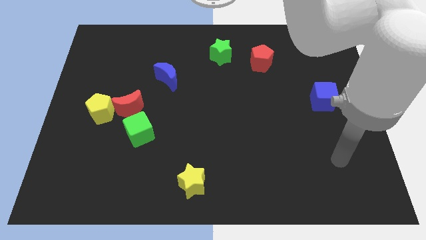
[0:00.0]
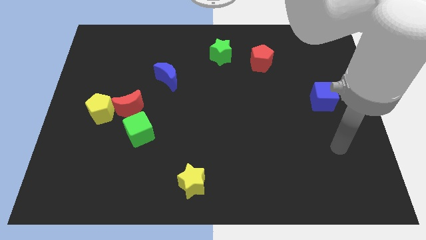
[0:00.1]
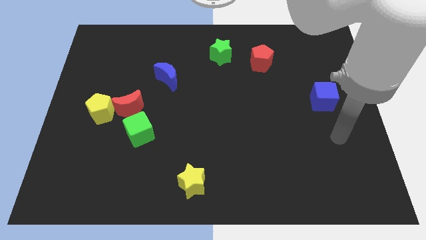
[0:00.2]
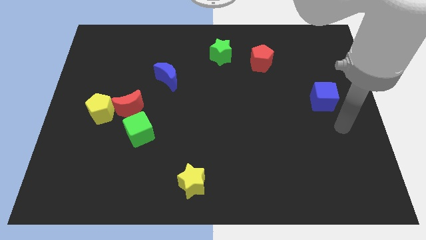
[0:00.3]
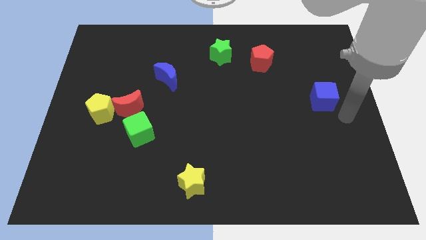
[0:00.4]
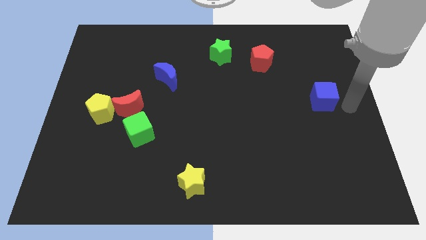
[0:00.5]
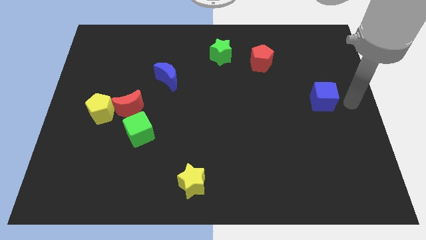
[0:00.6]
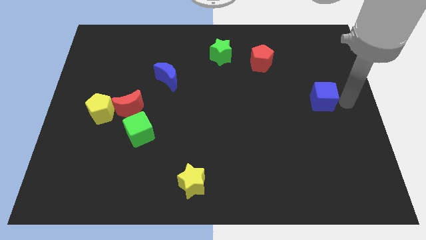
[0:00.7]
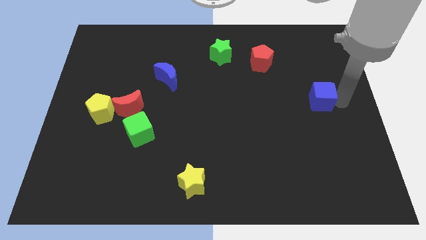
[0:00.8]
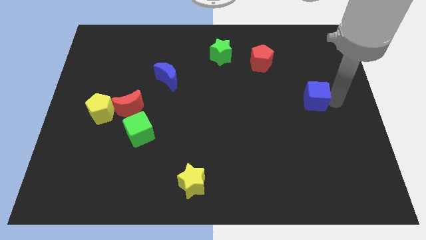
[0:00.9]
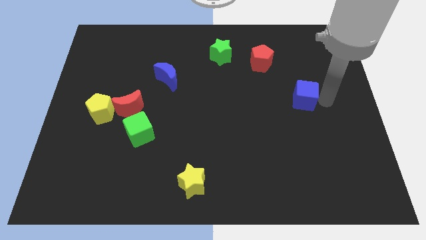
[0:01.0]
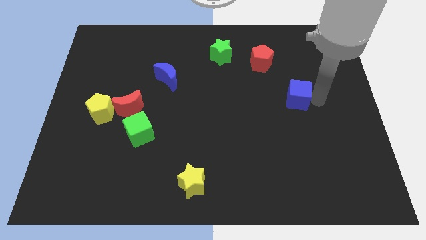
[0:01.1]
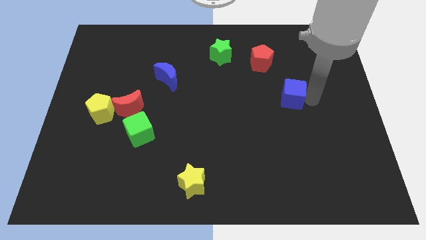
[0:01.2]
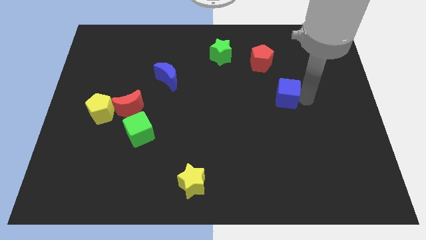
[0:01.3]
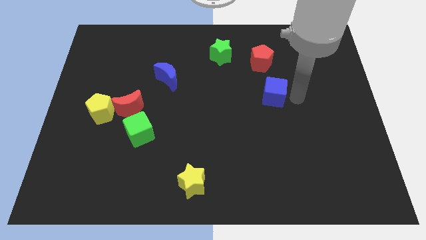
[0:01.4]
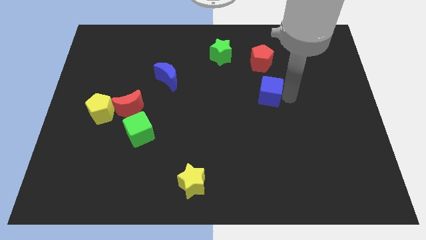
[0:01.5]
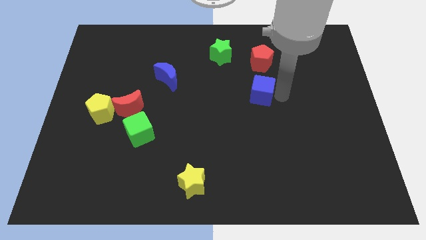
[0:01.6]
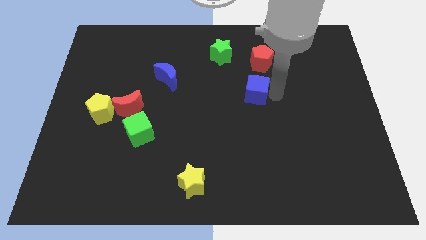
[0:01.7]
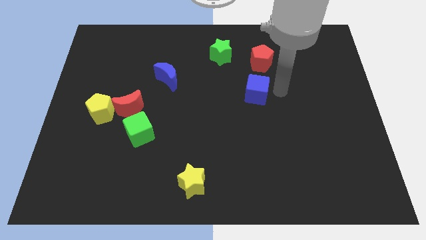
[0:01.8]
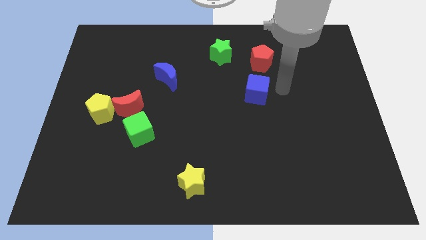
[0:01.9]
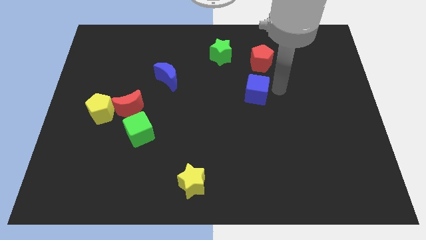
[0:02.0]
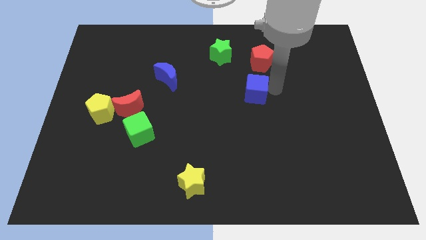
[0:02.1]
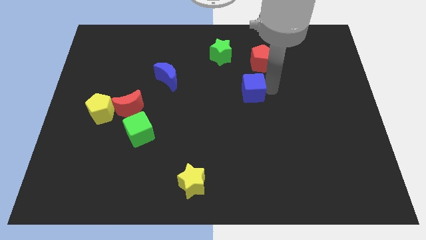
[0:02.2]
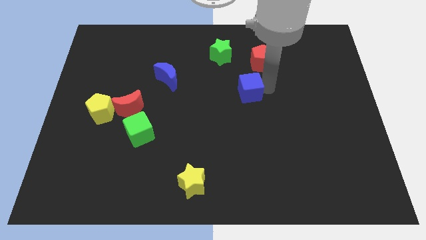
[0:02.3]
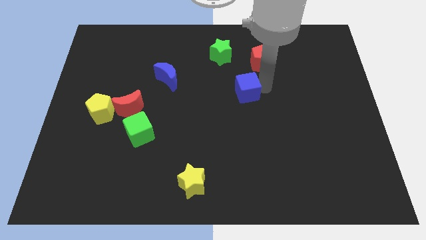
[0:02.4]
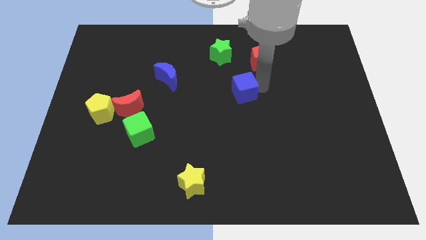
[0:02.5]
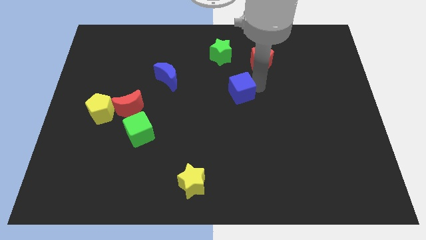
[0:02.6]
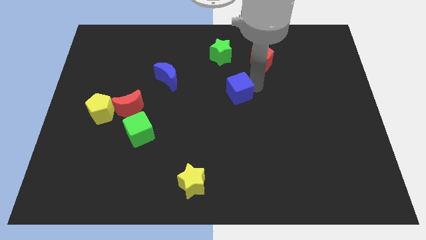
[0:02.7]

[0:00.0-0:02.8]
slide the blue cube left

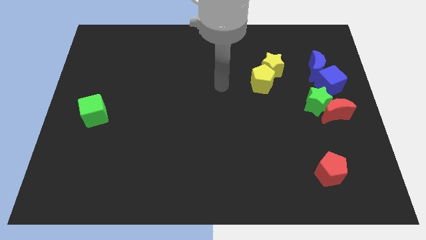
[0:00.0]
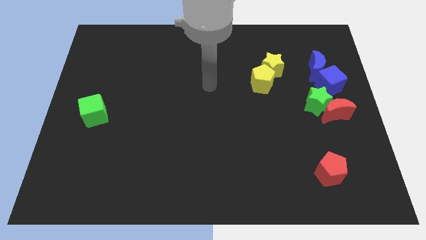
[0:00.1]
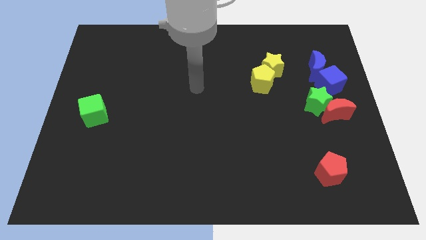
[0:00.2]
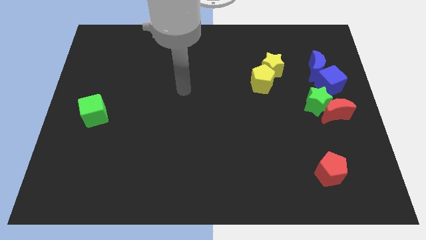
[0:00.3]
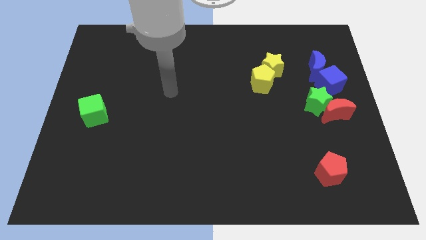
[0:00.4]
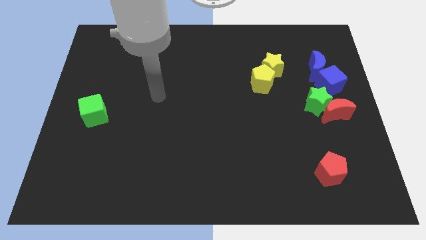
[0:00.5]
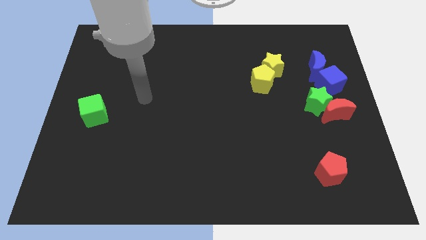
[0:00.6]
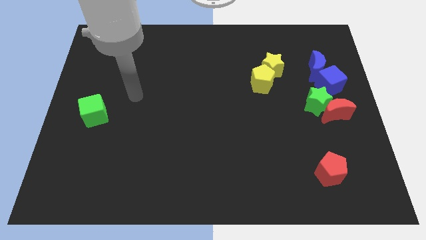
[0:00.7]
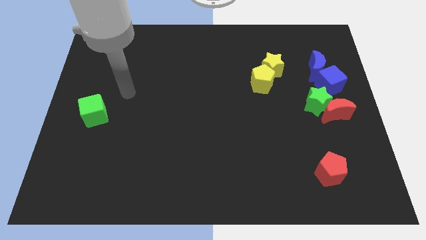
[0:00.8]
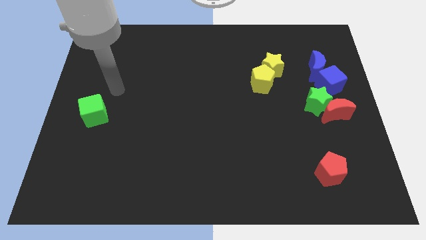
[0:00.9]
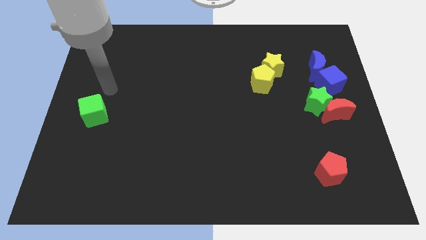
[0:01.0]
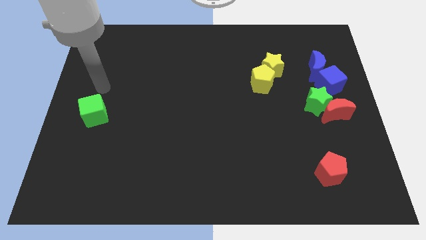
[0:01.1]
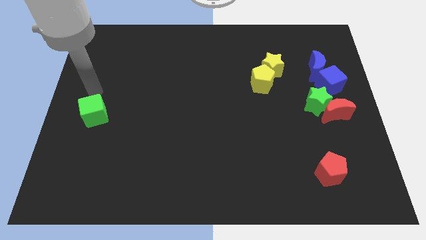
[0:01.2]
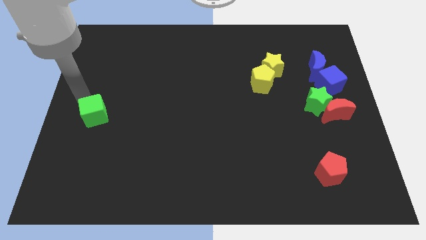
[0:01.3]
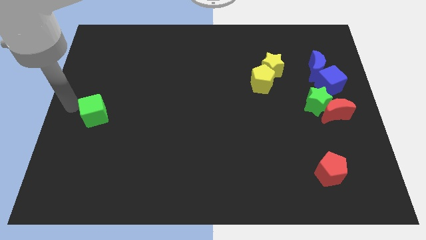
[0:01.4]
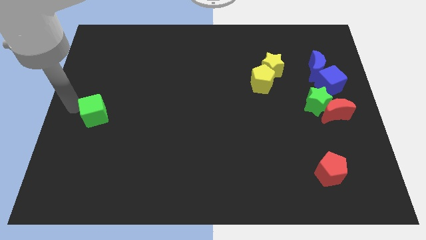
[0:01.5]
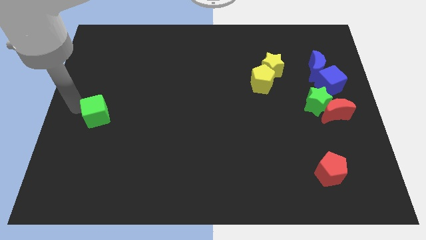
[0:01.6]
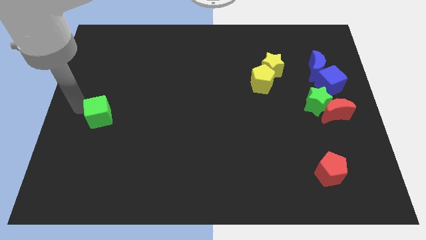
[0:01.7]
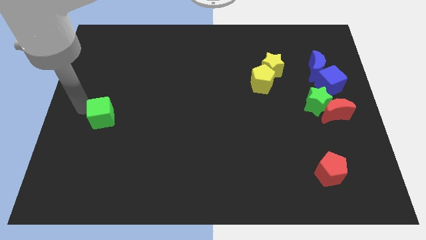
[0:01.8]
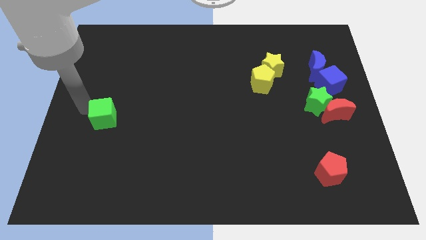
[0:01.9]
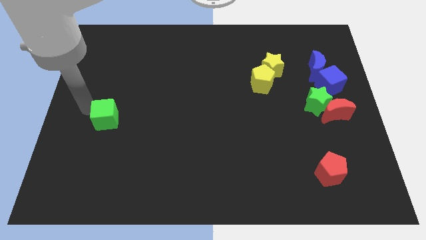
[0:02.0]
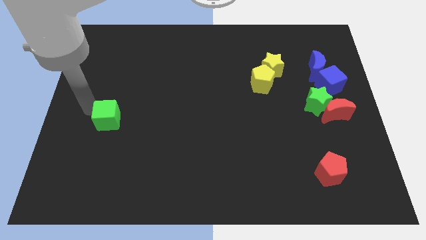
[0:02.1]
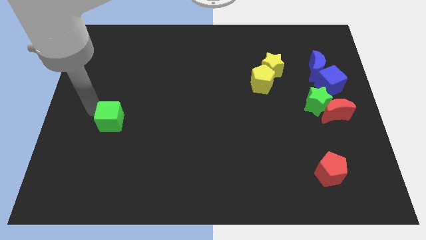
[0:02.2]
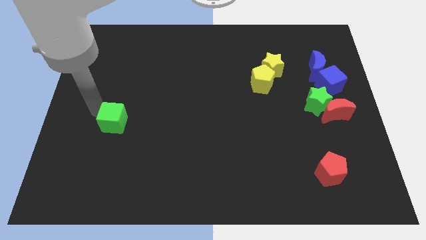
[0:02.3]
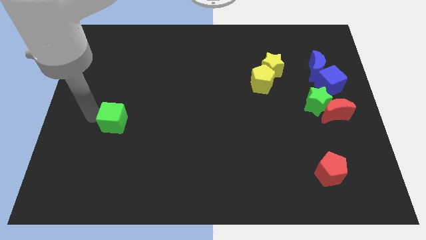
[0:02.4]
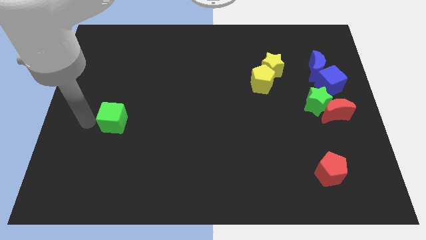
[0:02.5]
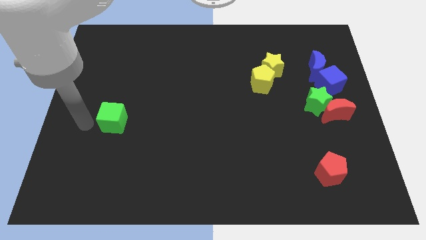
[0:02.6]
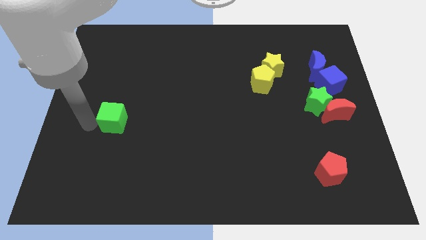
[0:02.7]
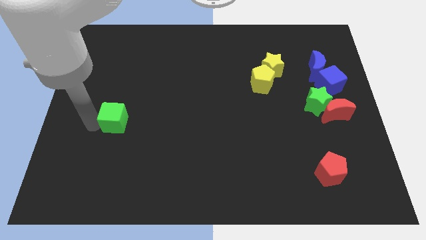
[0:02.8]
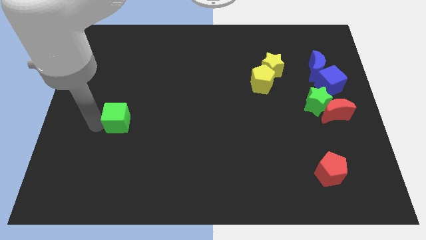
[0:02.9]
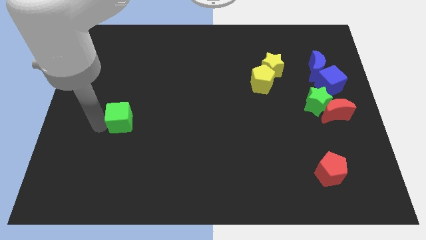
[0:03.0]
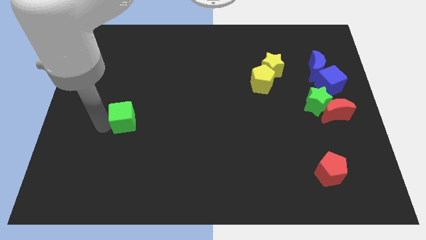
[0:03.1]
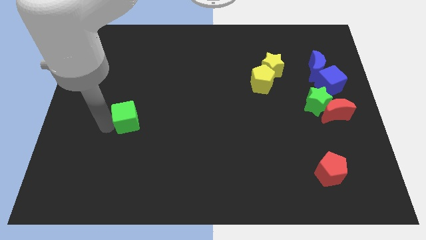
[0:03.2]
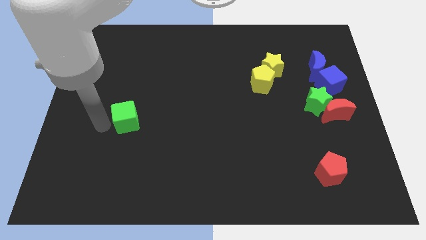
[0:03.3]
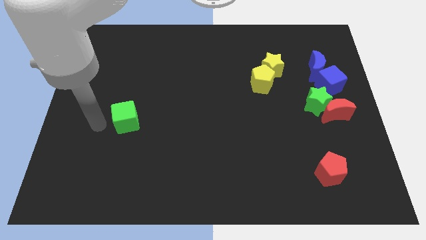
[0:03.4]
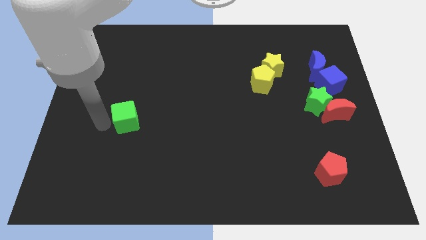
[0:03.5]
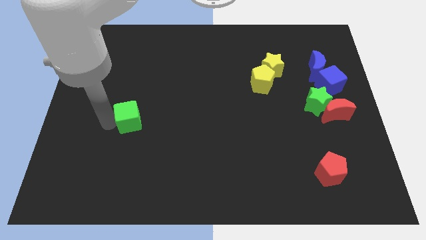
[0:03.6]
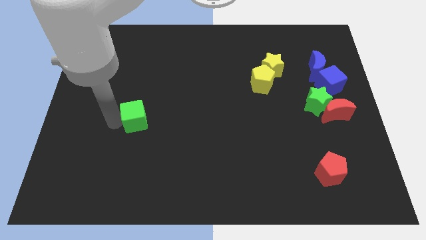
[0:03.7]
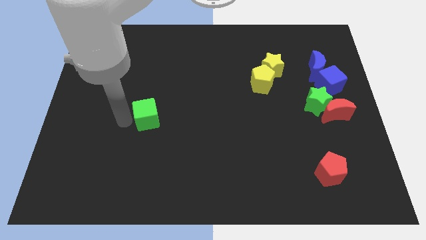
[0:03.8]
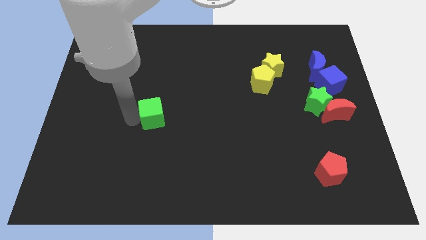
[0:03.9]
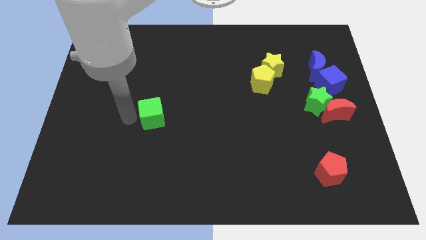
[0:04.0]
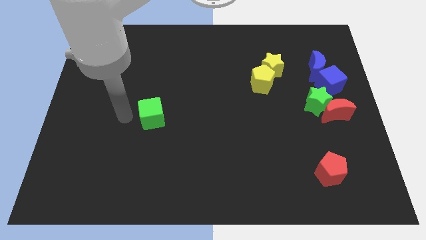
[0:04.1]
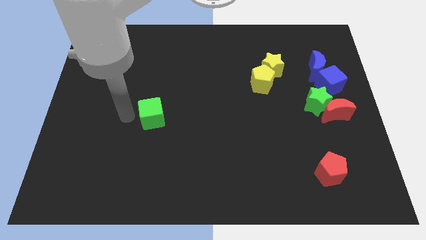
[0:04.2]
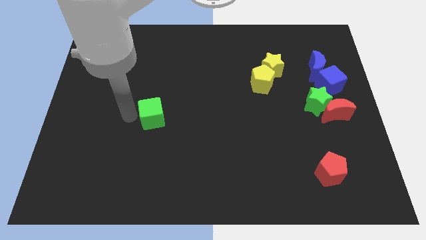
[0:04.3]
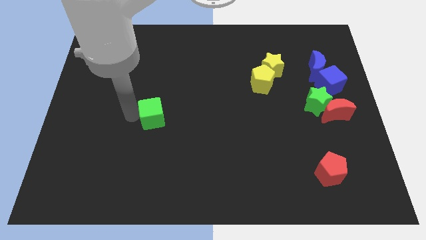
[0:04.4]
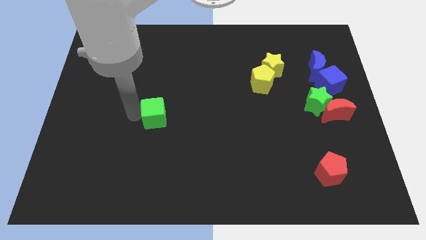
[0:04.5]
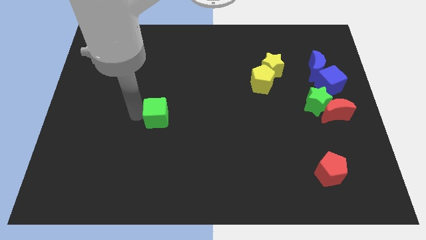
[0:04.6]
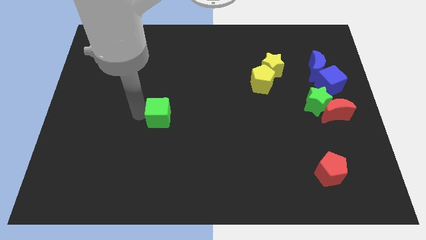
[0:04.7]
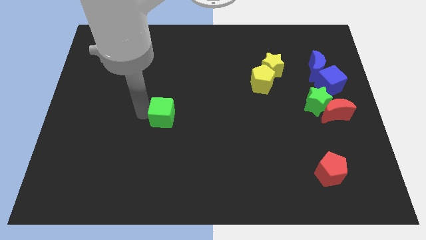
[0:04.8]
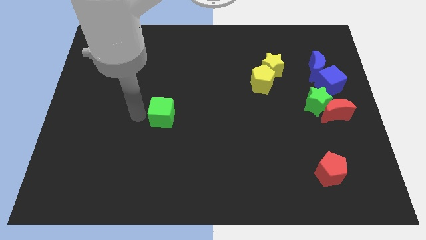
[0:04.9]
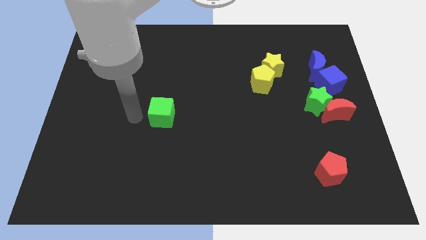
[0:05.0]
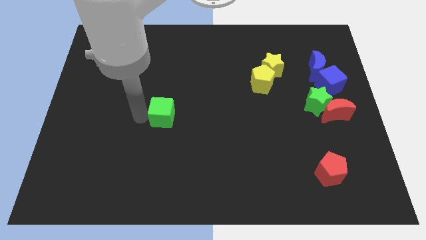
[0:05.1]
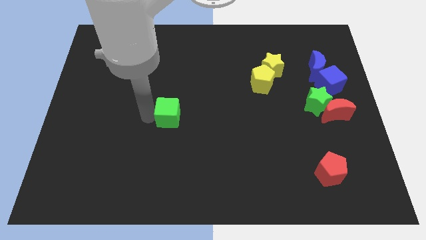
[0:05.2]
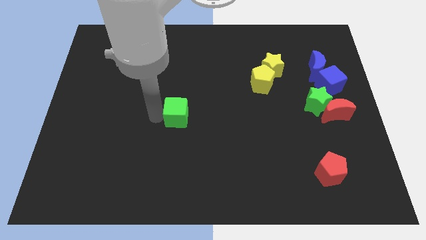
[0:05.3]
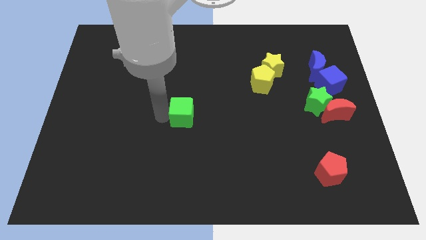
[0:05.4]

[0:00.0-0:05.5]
move the green cube right

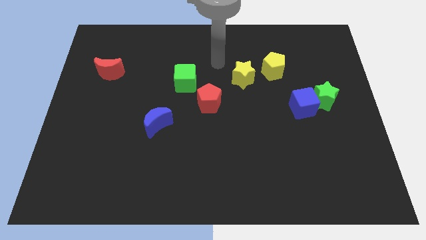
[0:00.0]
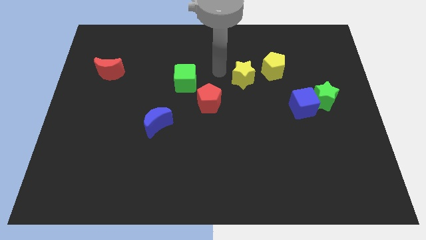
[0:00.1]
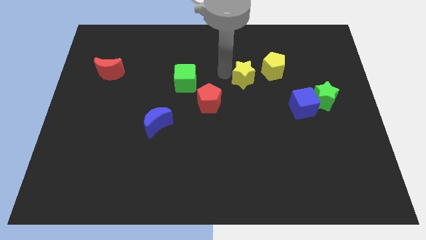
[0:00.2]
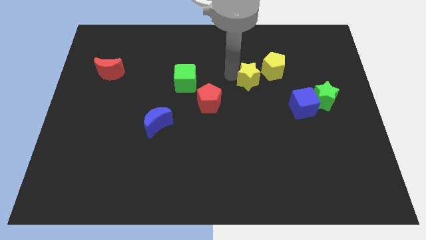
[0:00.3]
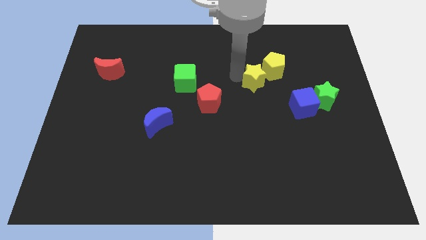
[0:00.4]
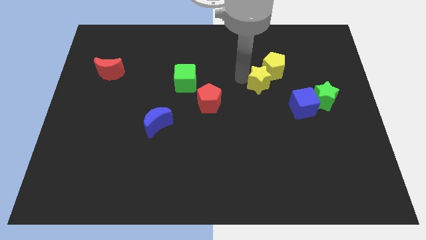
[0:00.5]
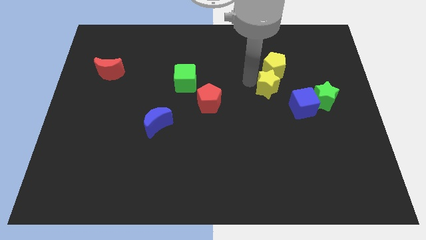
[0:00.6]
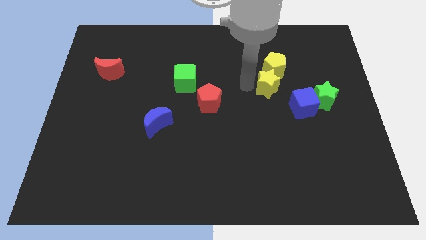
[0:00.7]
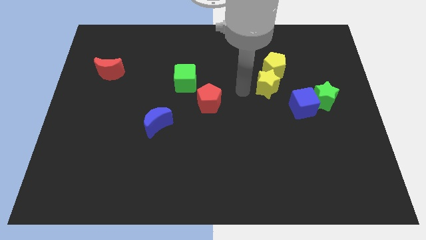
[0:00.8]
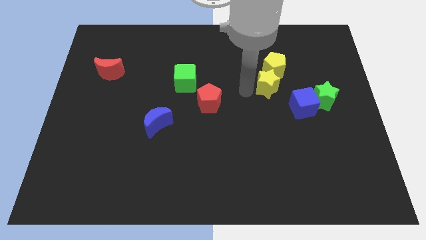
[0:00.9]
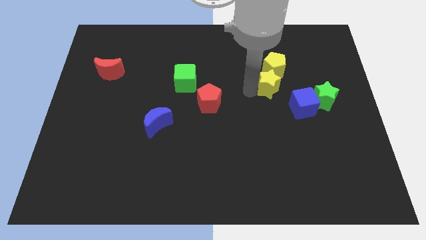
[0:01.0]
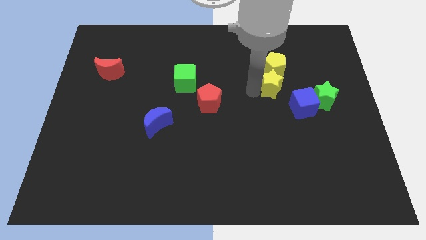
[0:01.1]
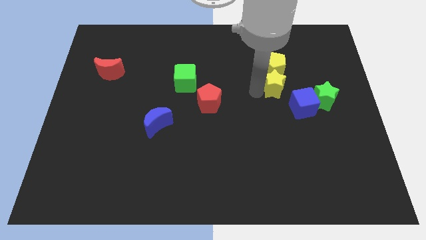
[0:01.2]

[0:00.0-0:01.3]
push the yellow star right a little
